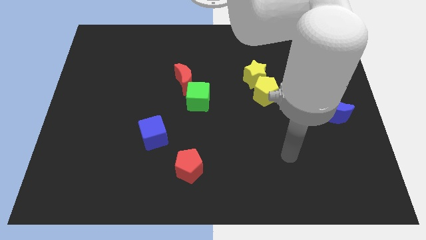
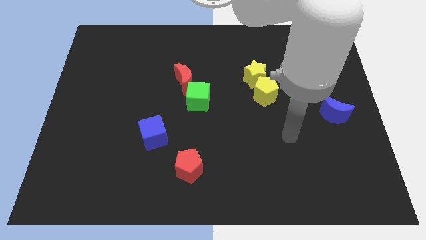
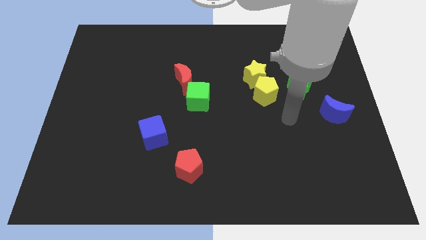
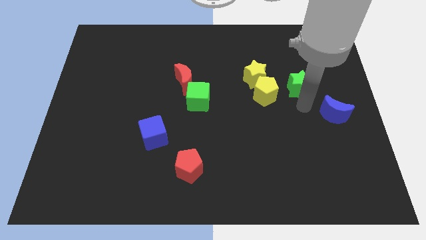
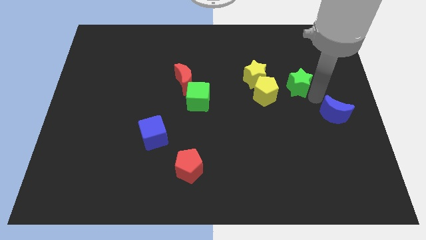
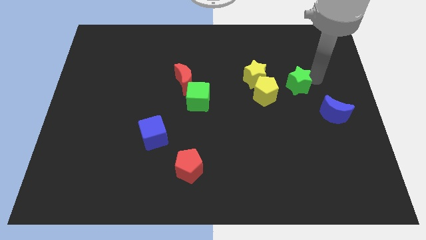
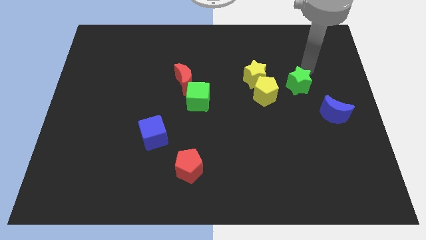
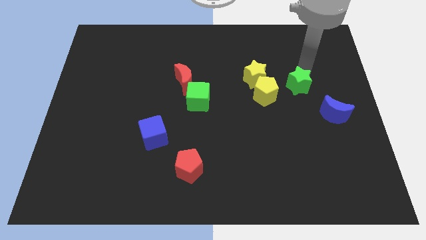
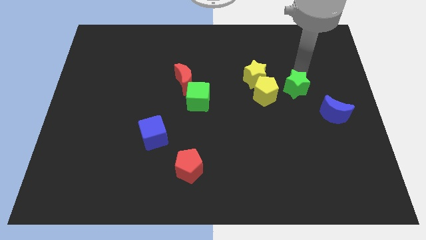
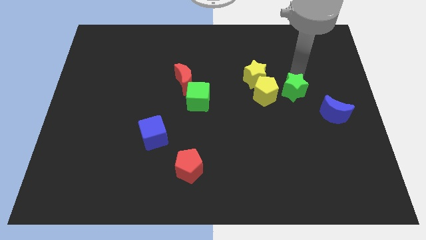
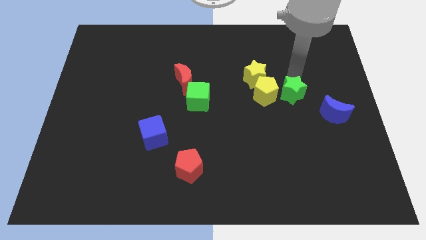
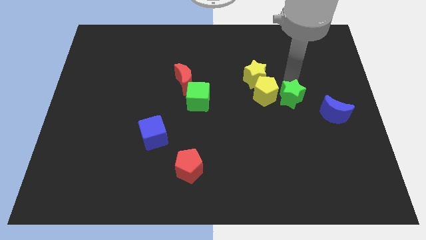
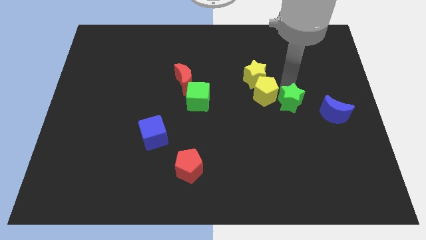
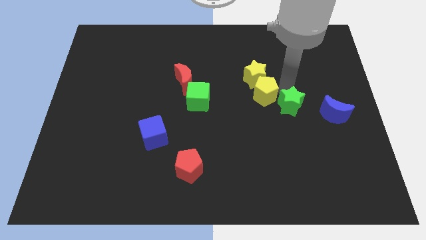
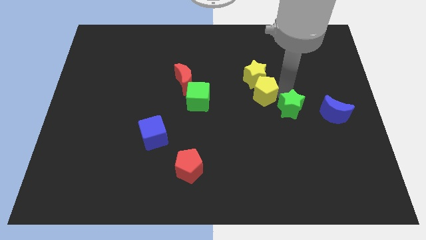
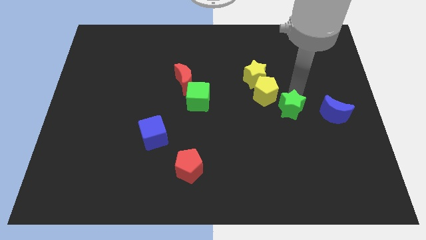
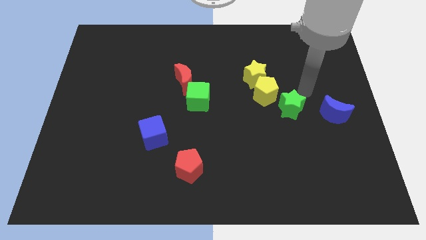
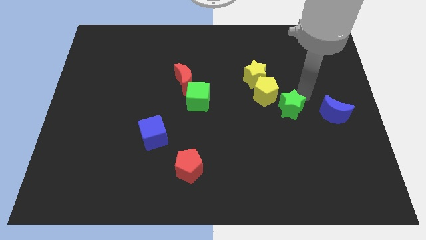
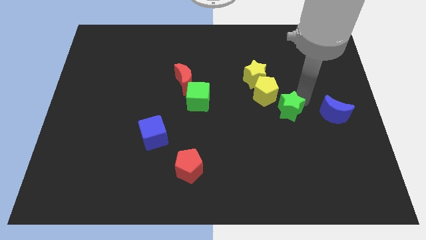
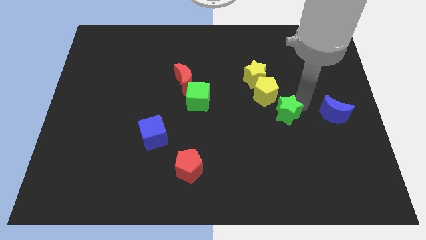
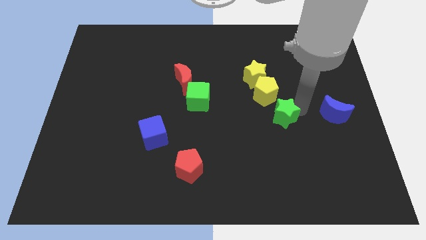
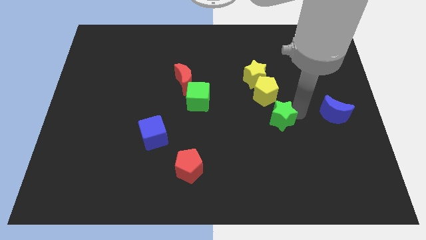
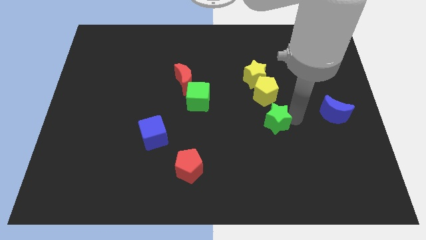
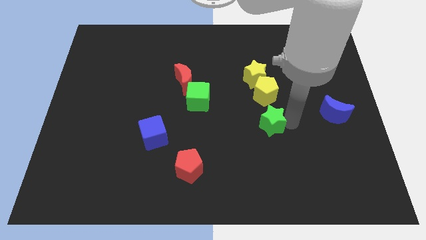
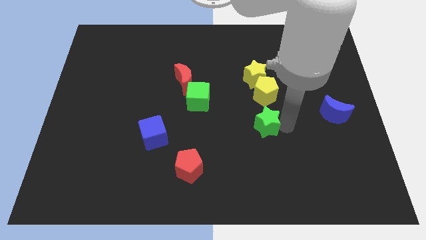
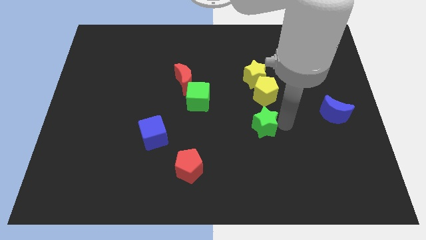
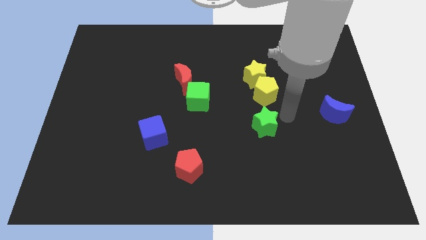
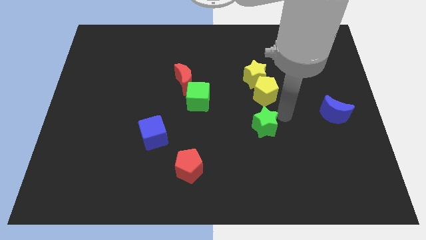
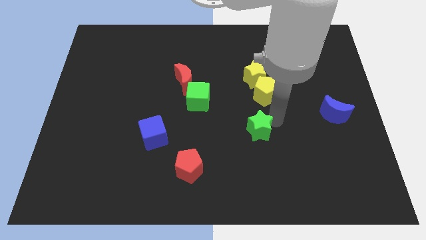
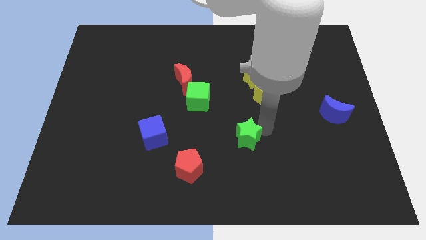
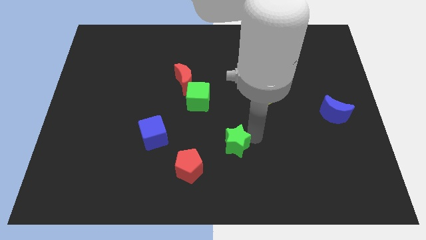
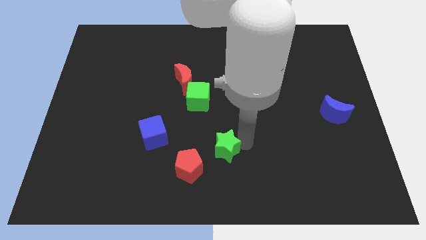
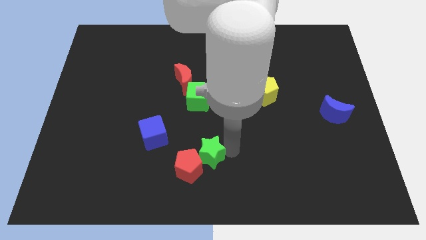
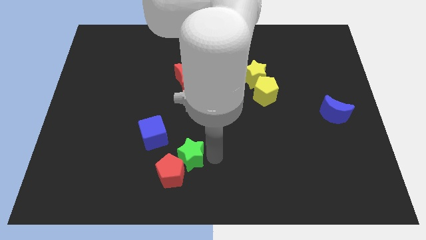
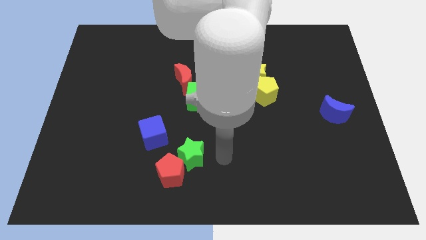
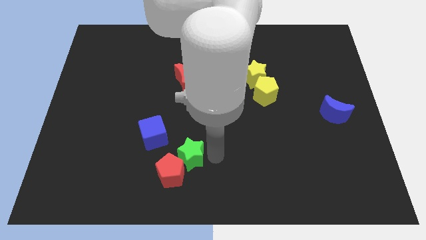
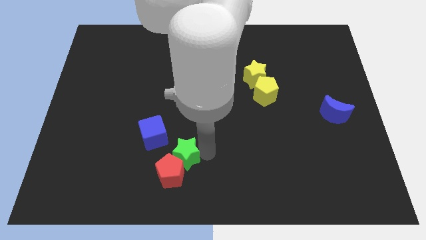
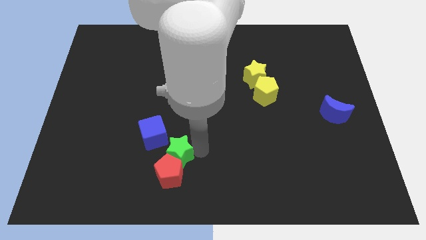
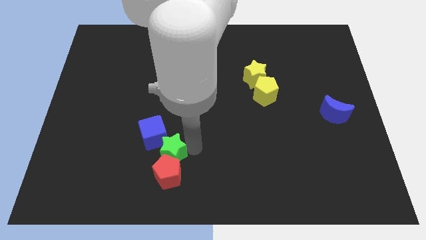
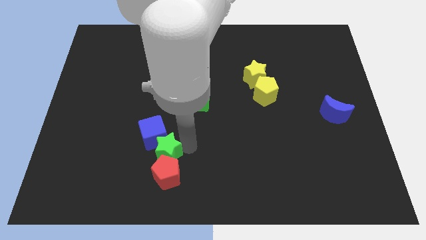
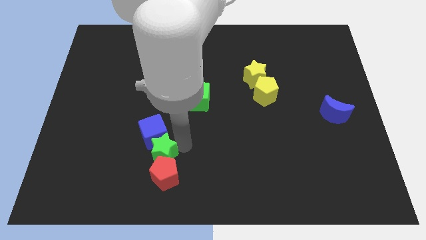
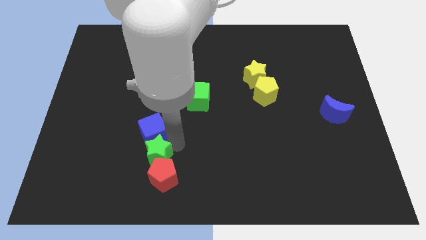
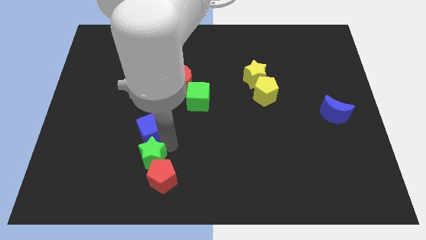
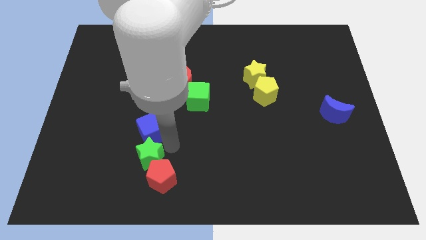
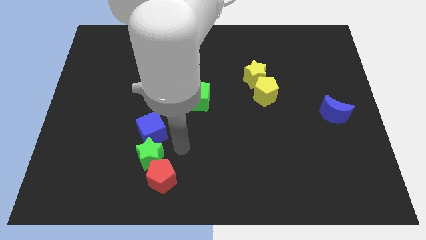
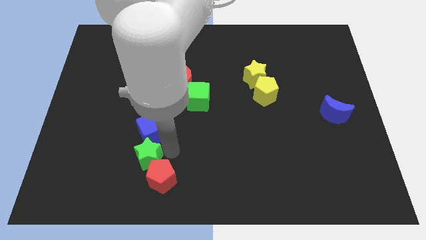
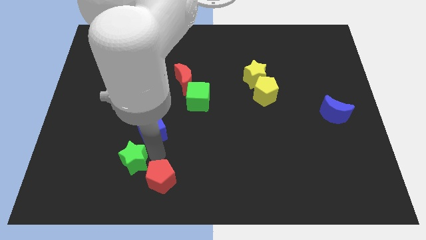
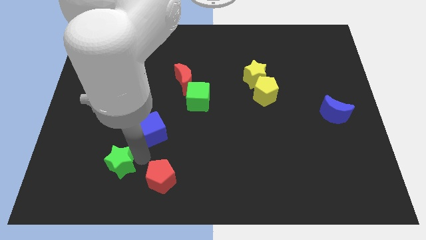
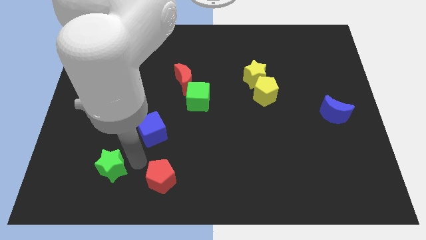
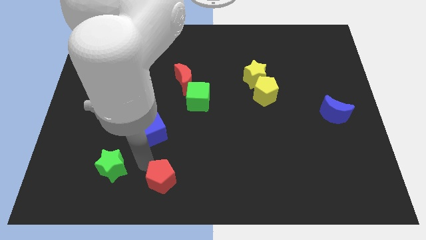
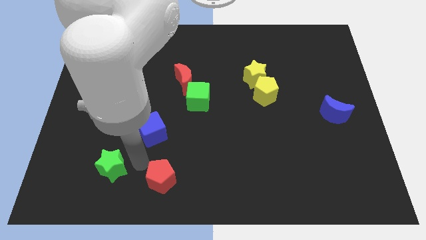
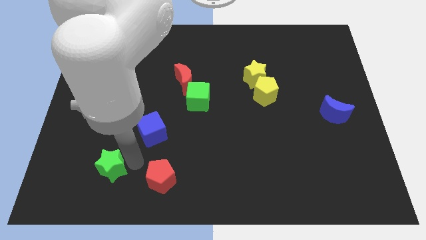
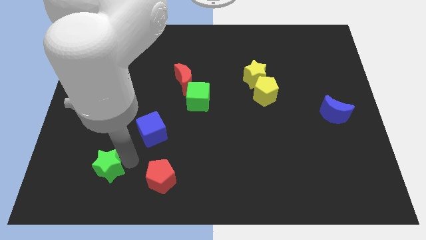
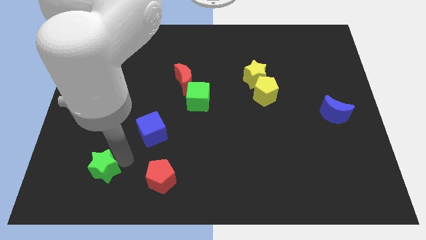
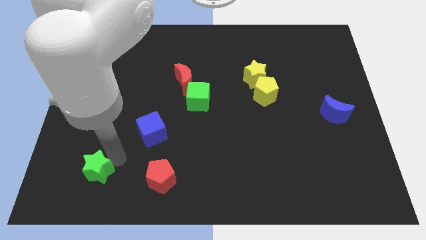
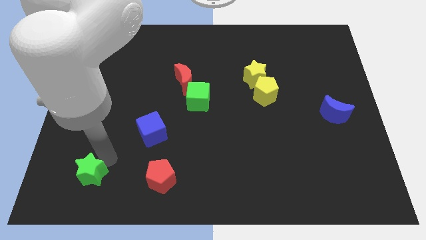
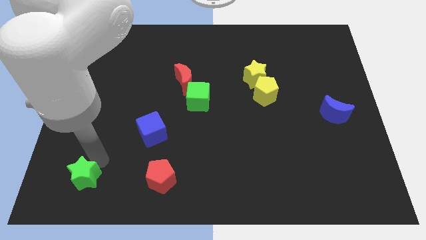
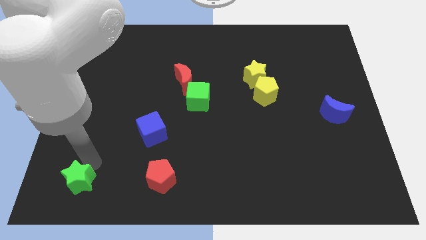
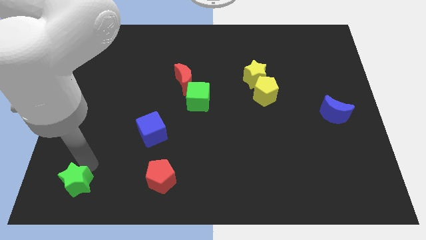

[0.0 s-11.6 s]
put the green star to the lower left corner

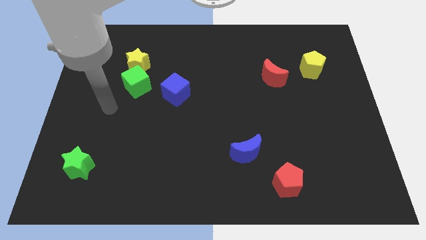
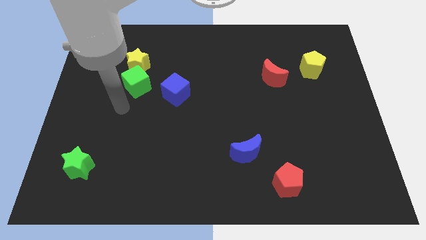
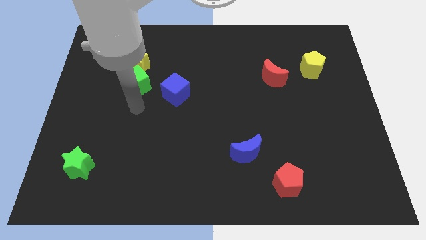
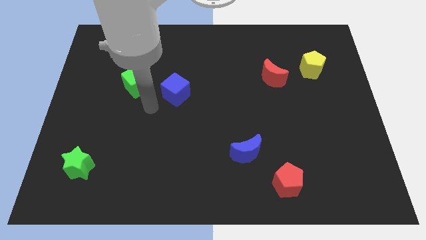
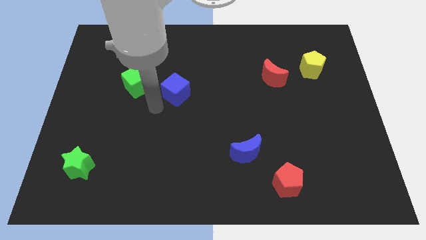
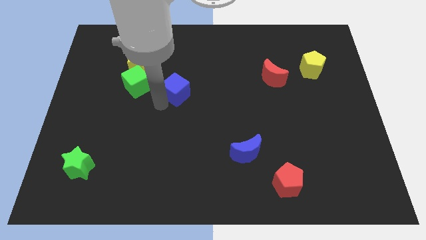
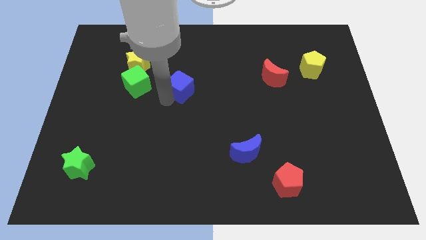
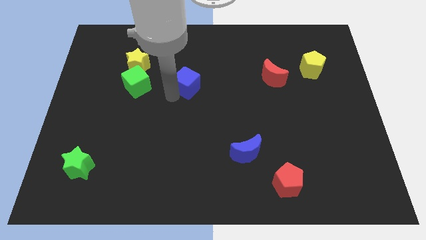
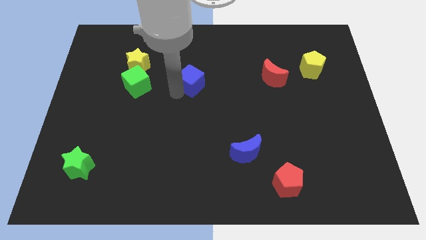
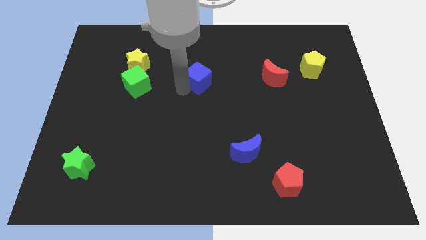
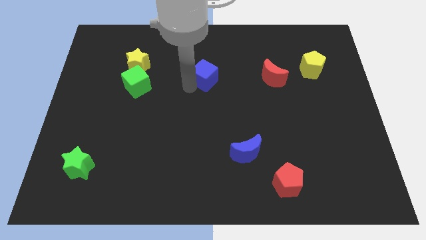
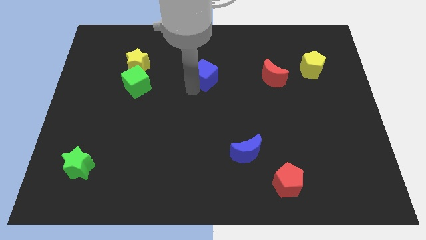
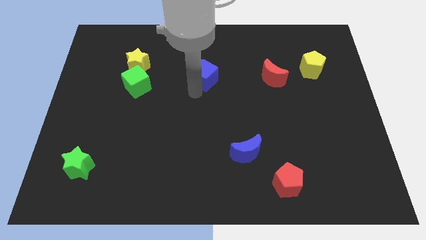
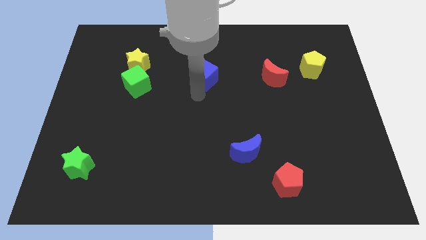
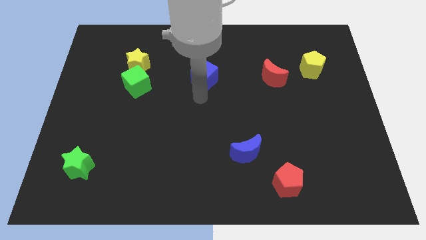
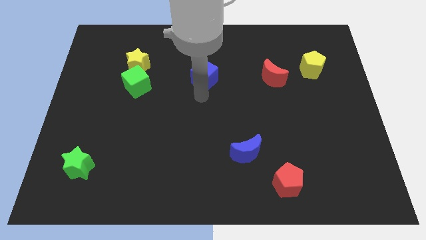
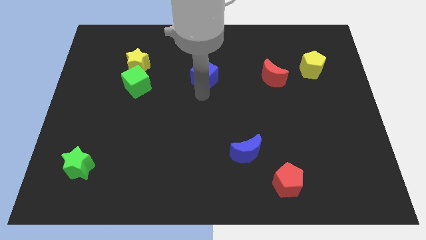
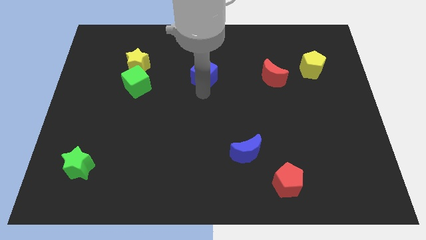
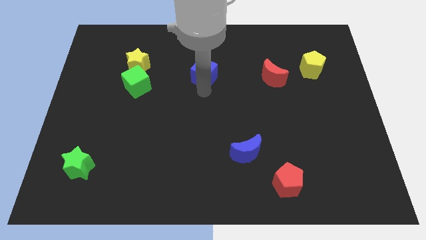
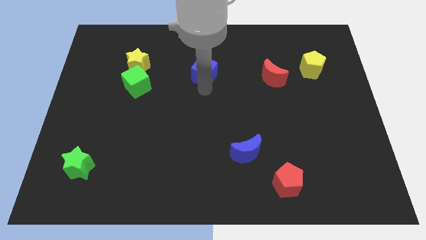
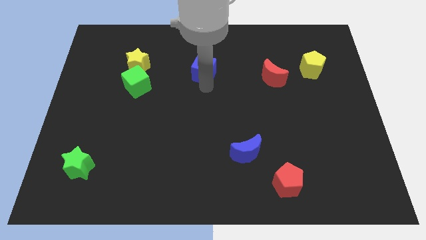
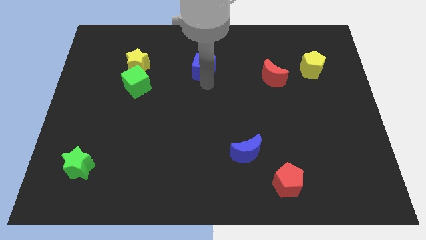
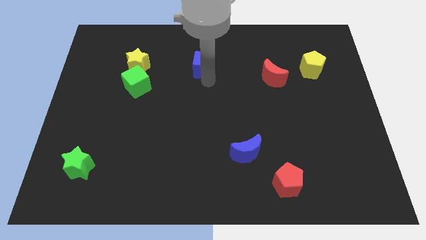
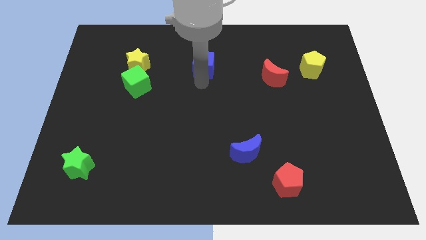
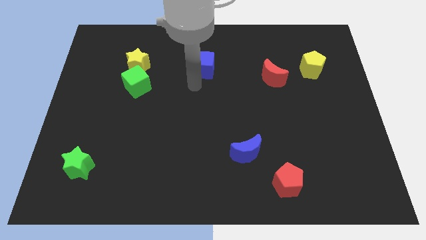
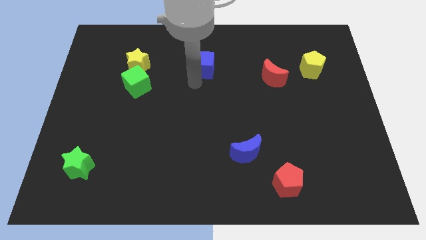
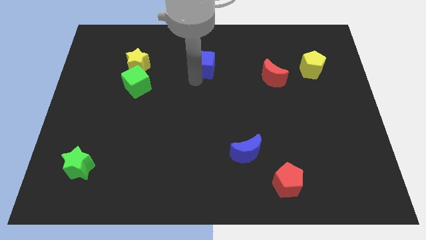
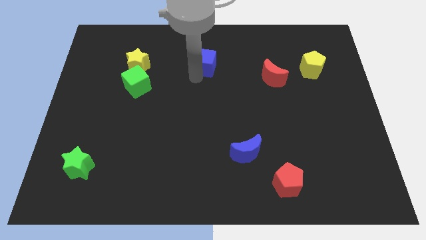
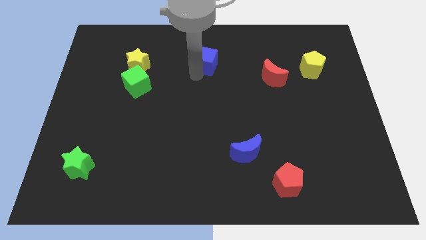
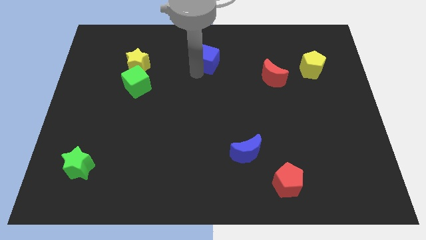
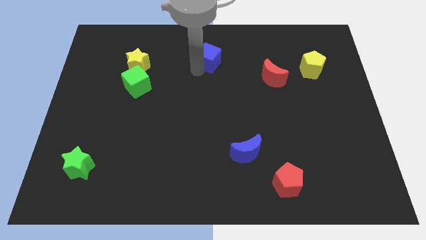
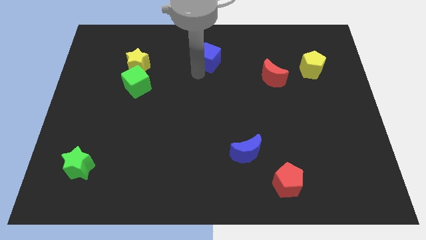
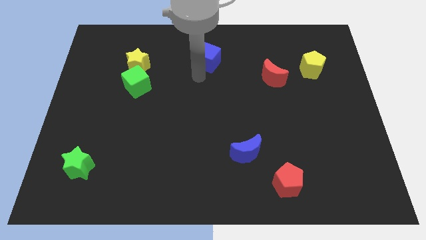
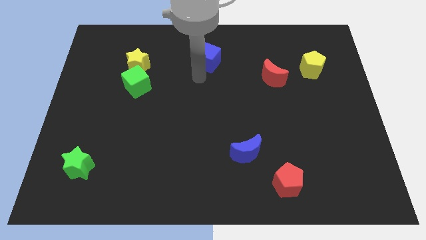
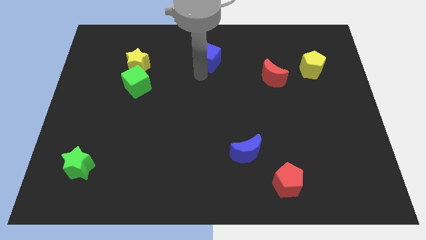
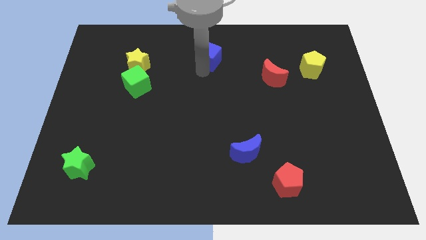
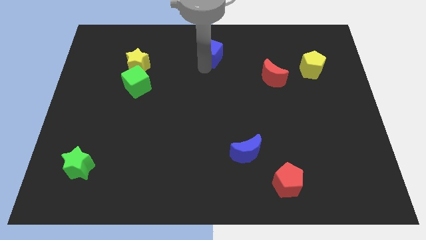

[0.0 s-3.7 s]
move the blue cube to the top
